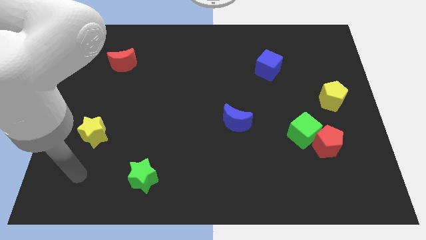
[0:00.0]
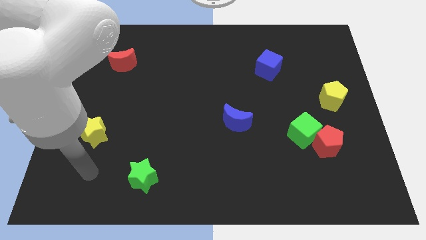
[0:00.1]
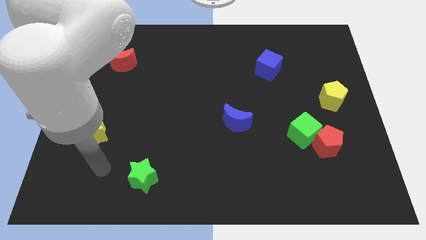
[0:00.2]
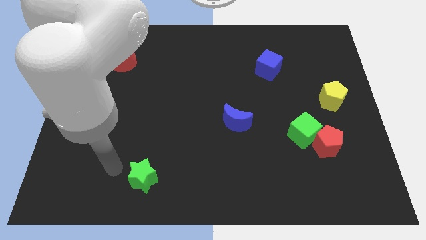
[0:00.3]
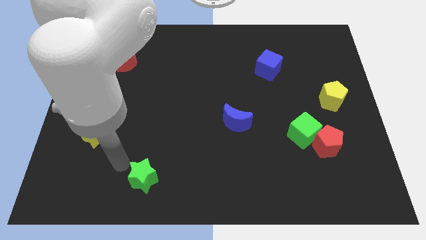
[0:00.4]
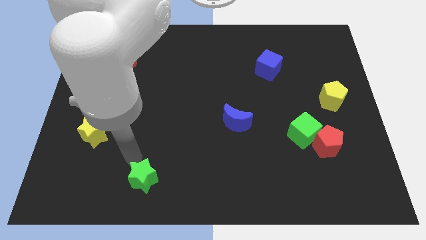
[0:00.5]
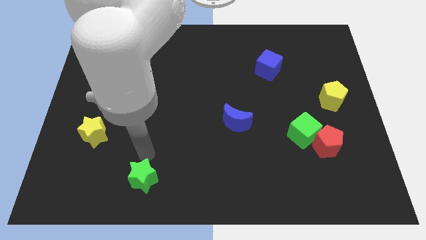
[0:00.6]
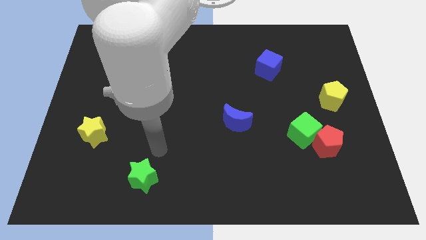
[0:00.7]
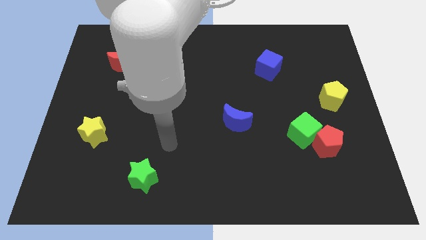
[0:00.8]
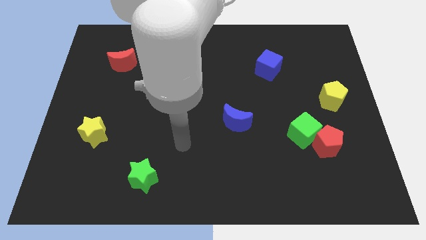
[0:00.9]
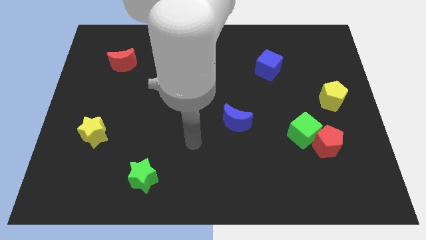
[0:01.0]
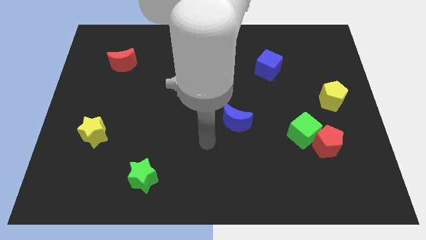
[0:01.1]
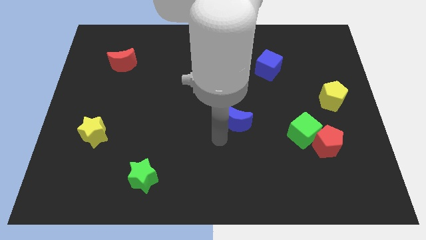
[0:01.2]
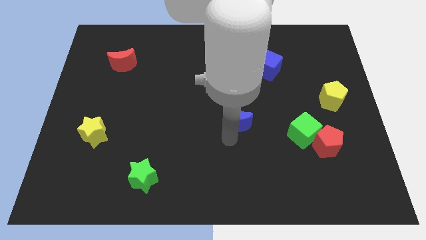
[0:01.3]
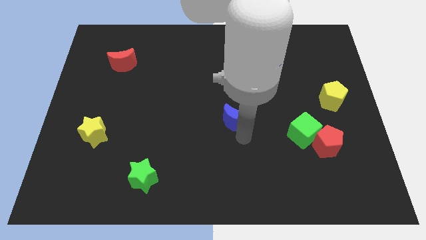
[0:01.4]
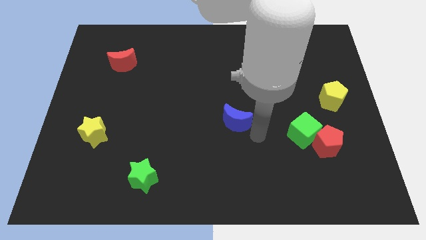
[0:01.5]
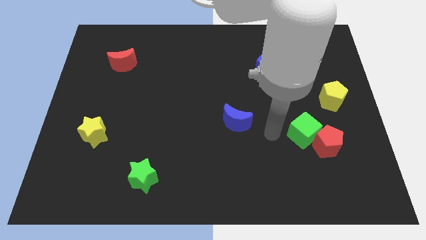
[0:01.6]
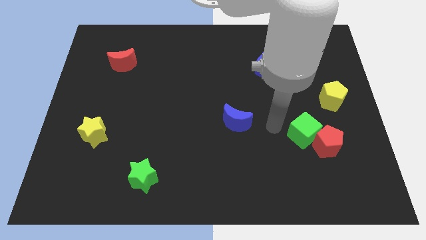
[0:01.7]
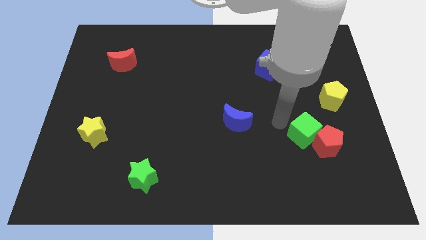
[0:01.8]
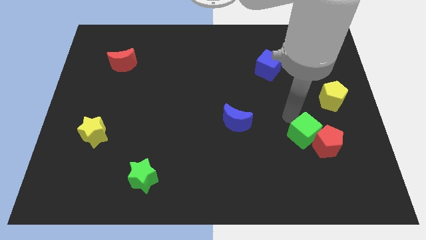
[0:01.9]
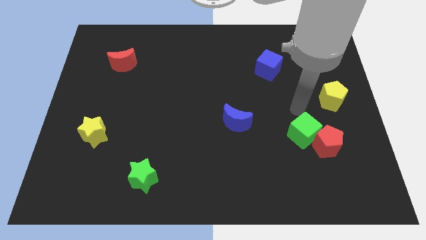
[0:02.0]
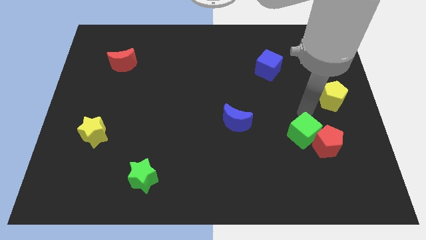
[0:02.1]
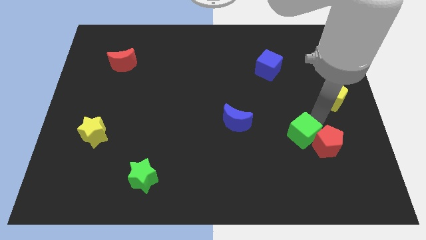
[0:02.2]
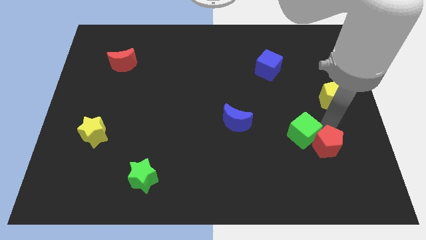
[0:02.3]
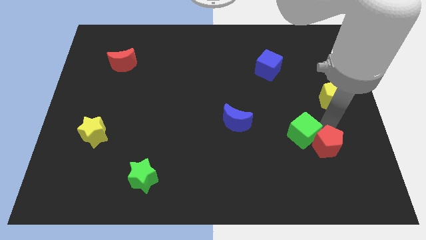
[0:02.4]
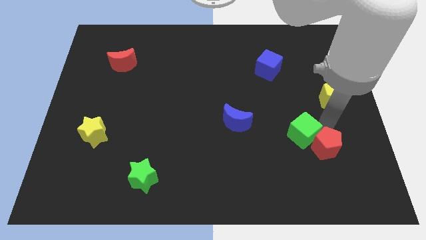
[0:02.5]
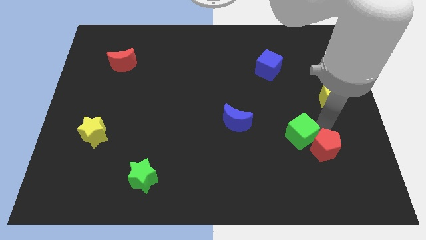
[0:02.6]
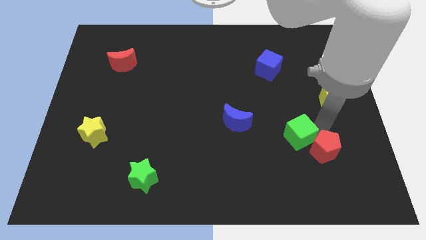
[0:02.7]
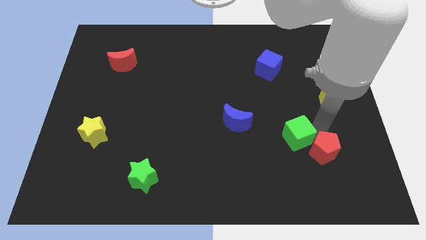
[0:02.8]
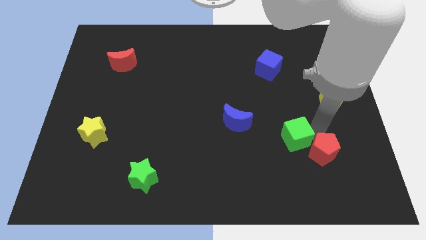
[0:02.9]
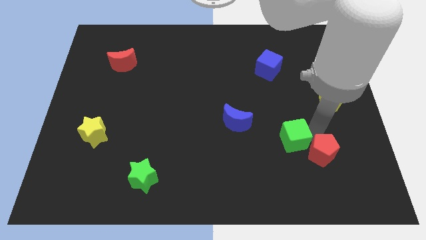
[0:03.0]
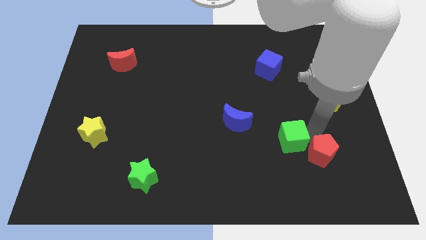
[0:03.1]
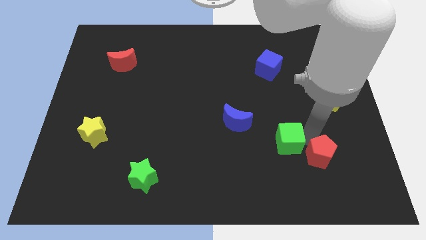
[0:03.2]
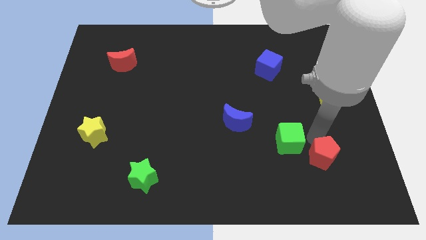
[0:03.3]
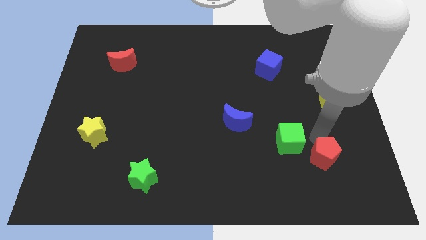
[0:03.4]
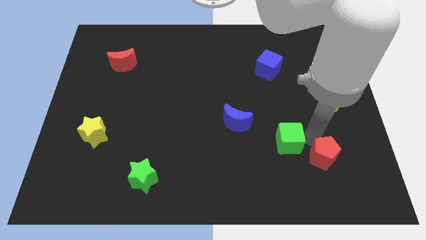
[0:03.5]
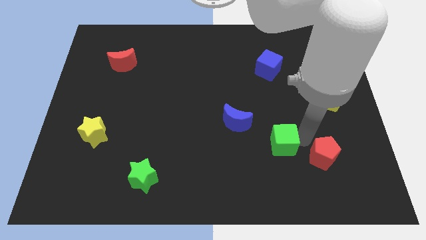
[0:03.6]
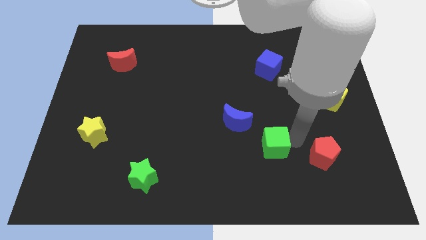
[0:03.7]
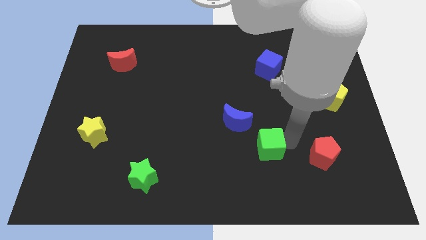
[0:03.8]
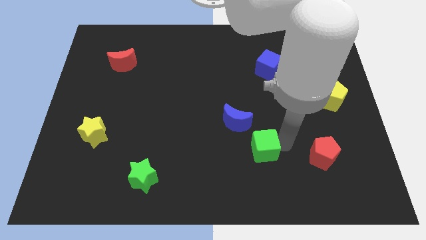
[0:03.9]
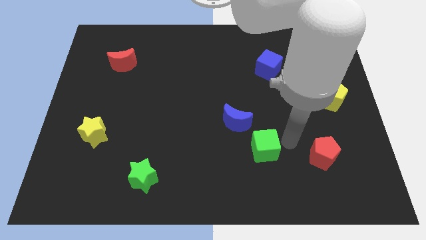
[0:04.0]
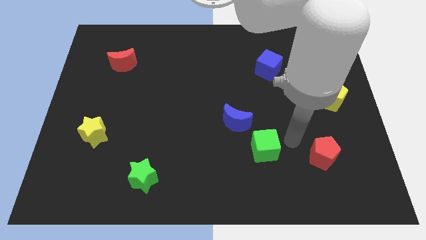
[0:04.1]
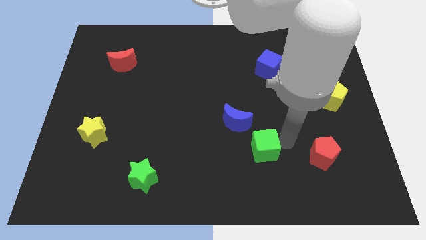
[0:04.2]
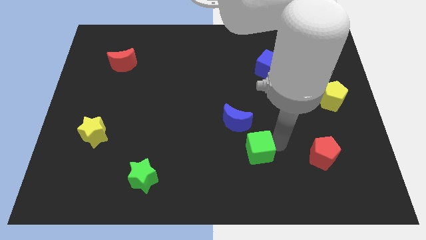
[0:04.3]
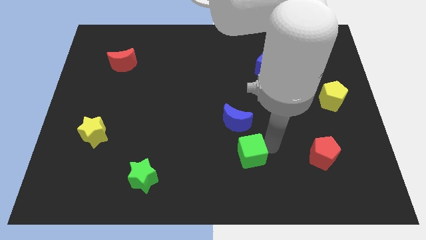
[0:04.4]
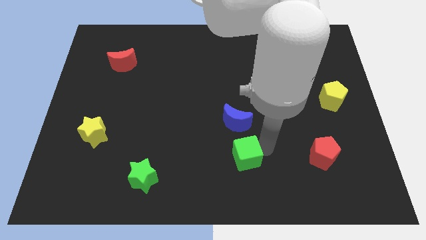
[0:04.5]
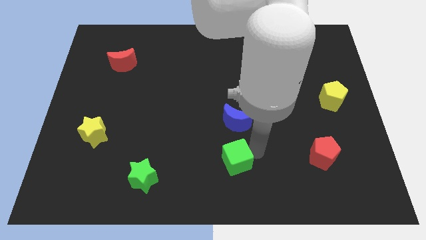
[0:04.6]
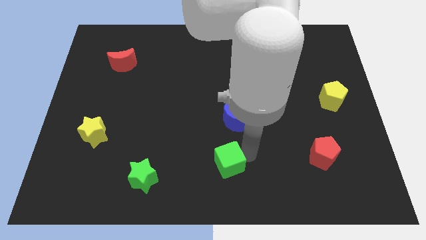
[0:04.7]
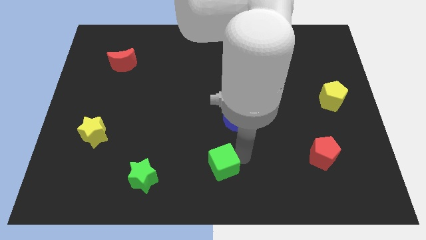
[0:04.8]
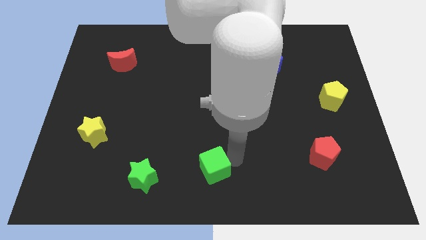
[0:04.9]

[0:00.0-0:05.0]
slide the green cube just right of the green star

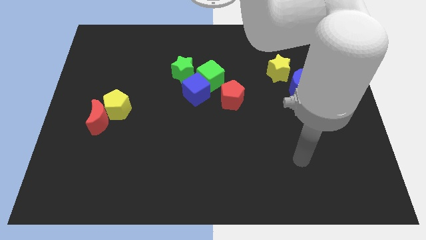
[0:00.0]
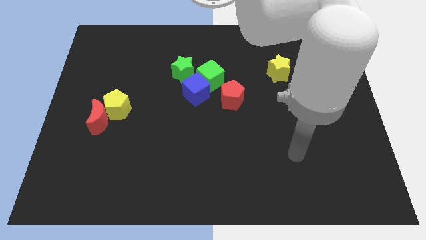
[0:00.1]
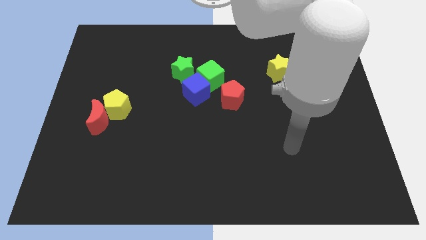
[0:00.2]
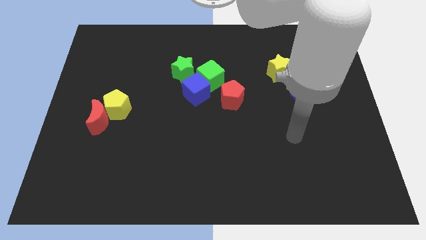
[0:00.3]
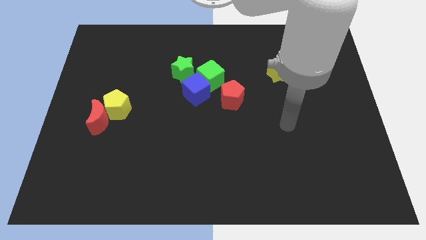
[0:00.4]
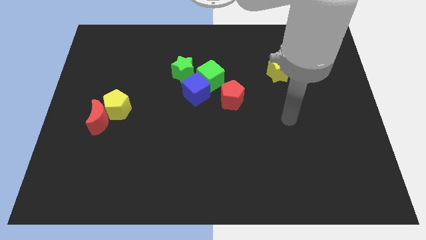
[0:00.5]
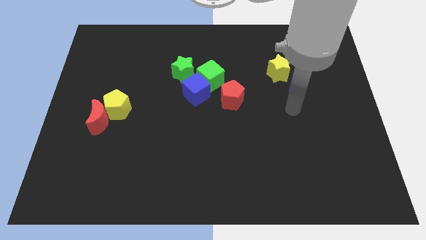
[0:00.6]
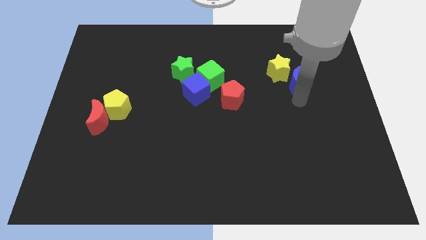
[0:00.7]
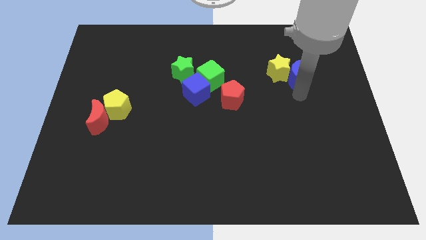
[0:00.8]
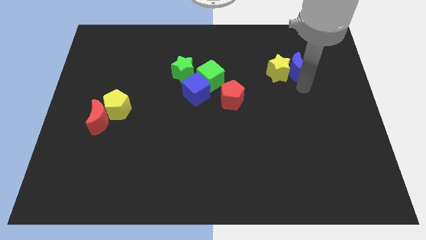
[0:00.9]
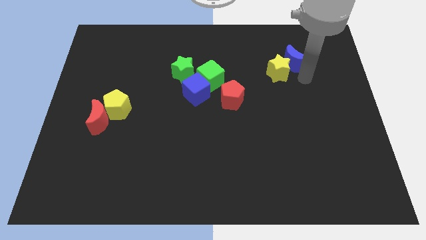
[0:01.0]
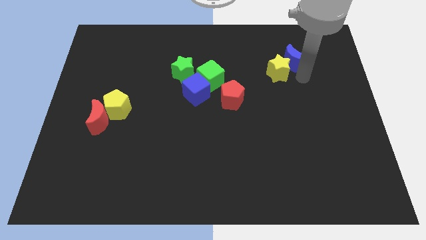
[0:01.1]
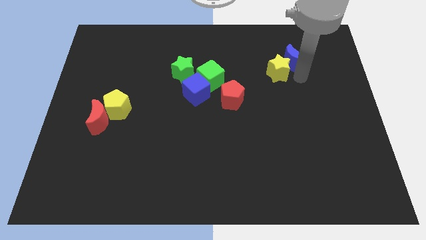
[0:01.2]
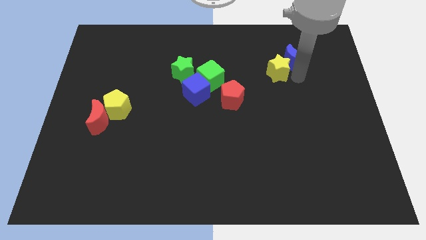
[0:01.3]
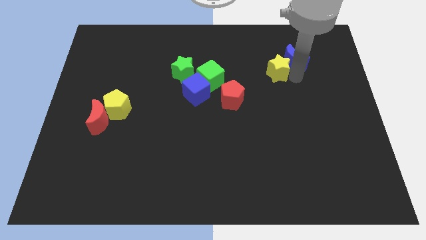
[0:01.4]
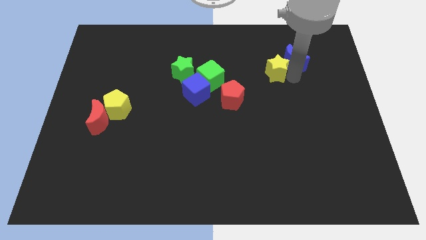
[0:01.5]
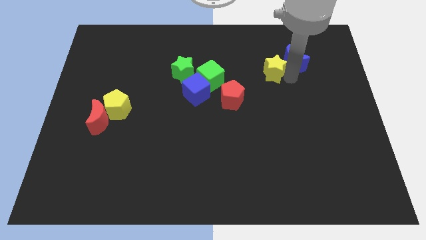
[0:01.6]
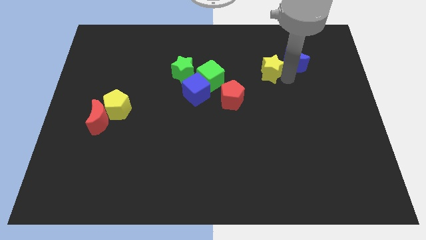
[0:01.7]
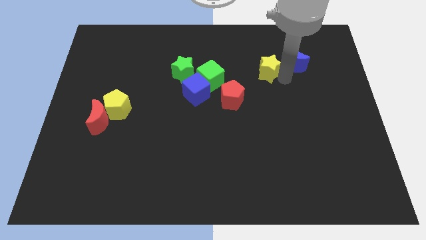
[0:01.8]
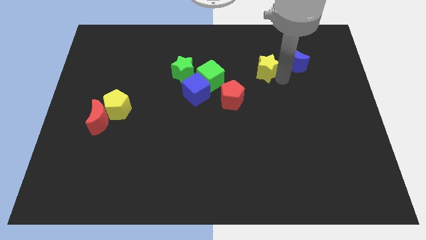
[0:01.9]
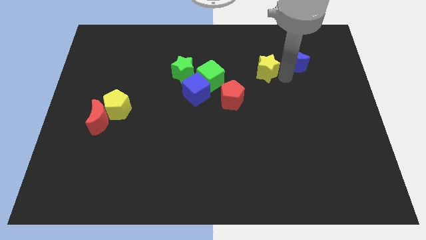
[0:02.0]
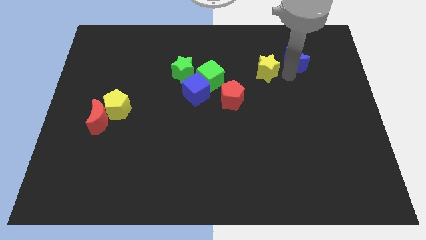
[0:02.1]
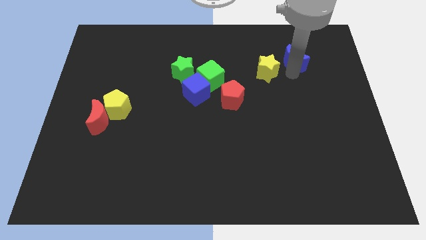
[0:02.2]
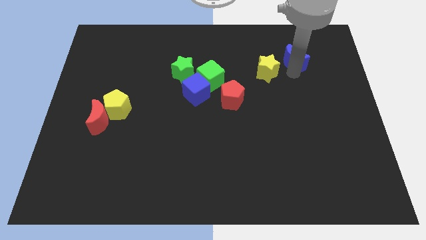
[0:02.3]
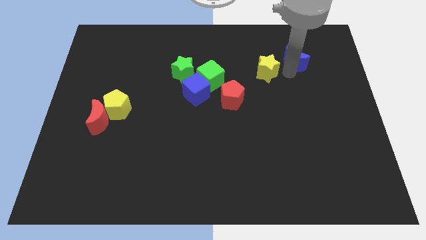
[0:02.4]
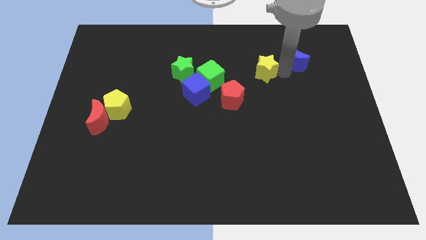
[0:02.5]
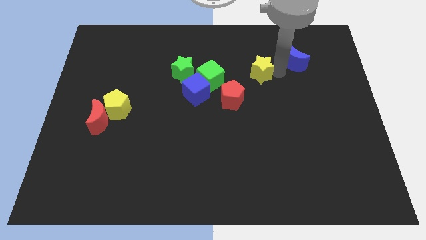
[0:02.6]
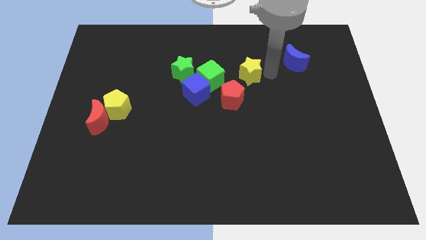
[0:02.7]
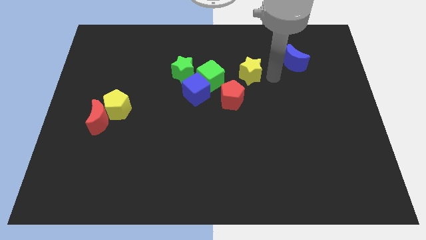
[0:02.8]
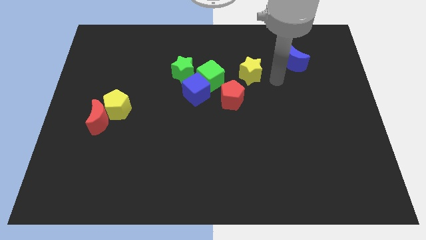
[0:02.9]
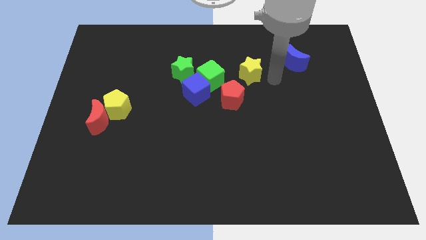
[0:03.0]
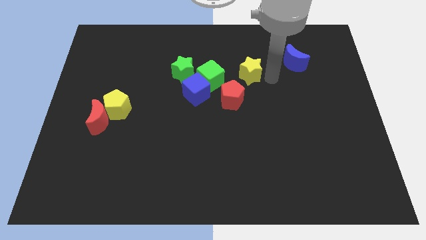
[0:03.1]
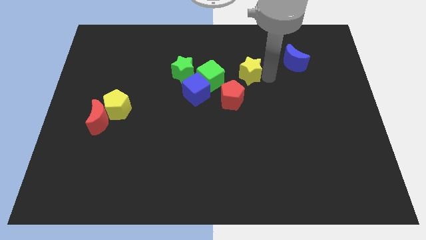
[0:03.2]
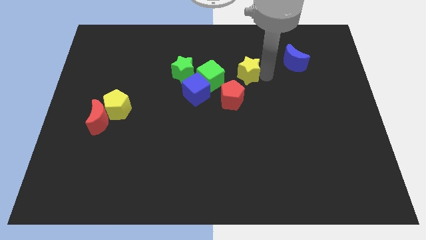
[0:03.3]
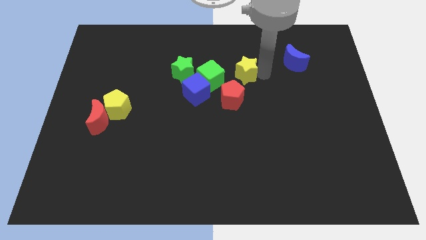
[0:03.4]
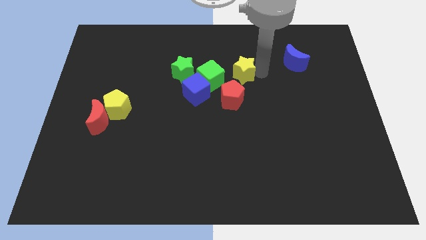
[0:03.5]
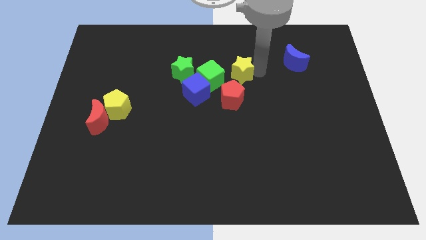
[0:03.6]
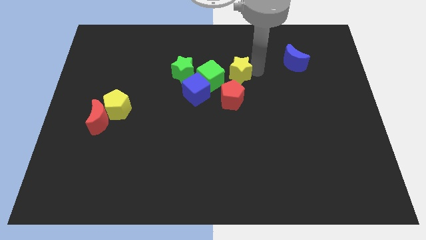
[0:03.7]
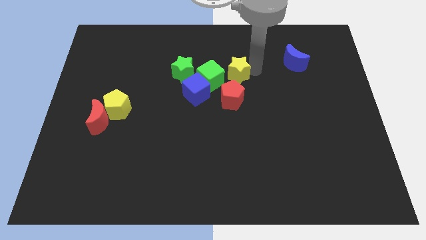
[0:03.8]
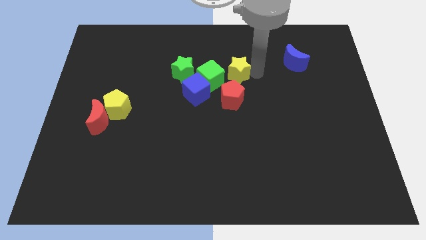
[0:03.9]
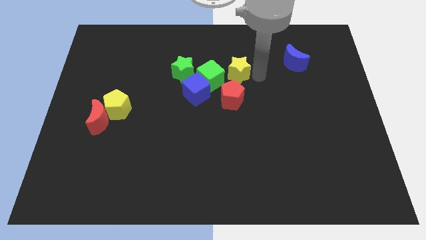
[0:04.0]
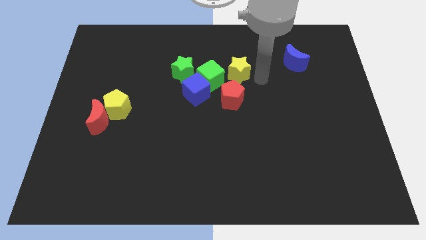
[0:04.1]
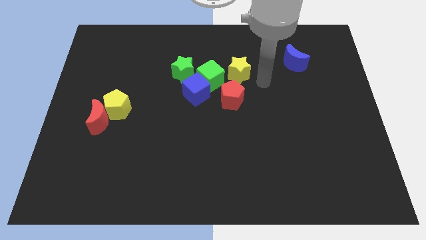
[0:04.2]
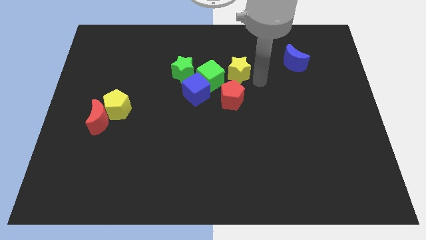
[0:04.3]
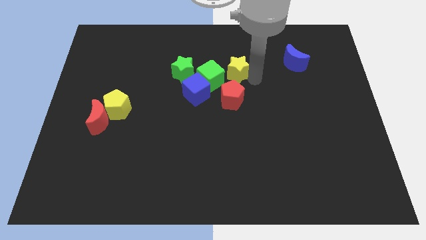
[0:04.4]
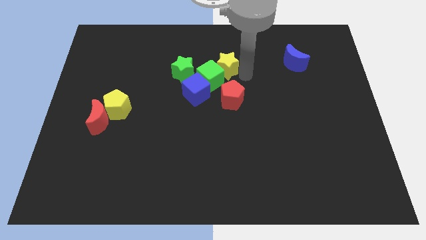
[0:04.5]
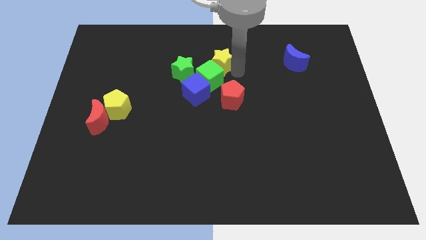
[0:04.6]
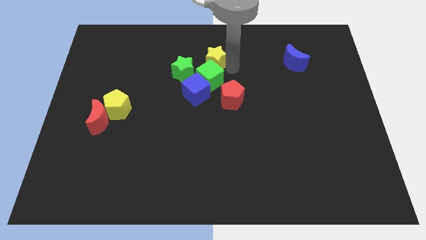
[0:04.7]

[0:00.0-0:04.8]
put the yellow star to the top of the blue cube
